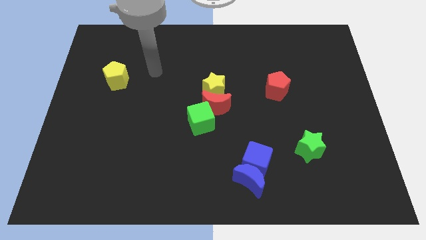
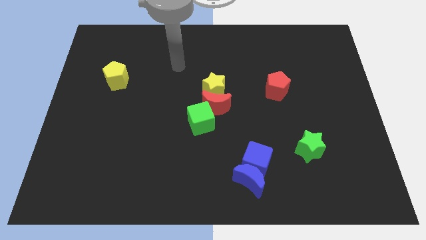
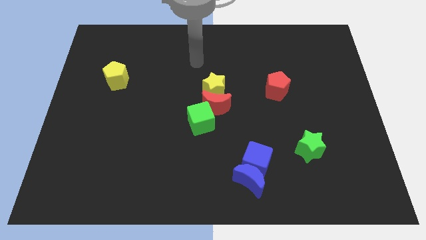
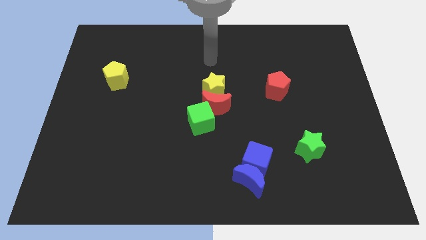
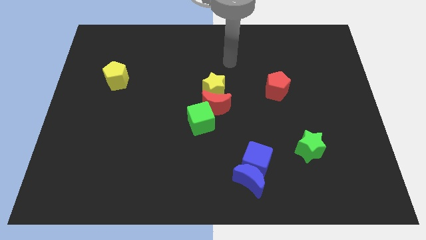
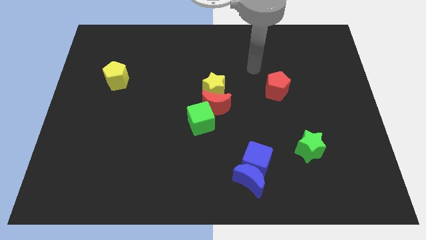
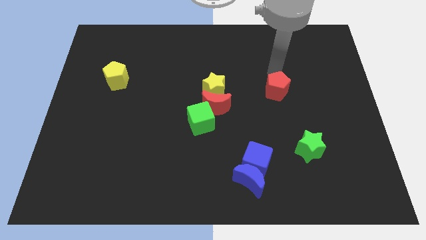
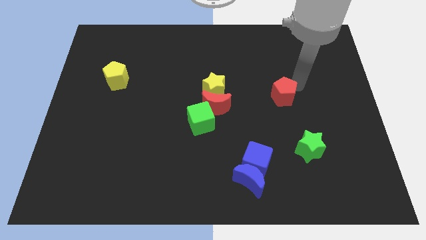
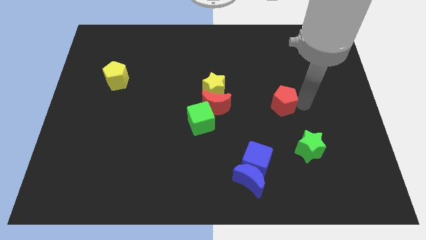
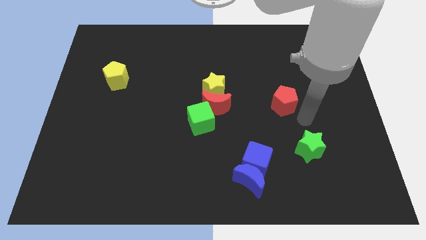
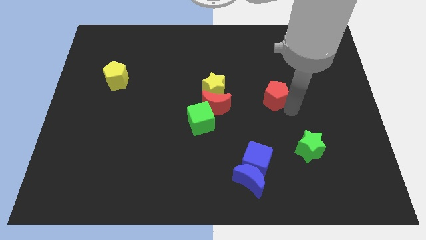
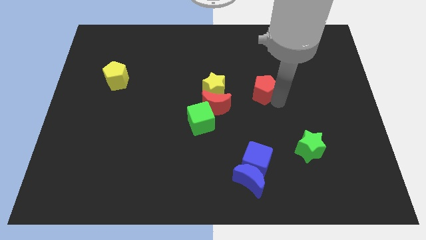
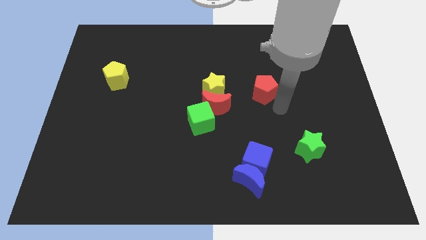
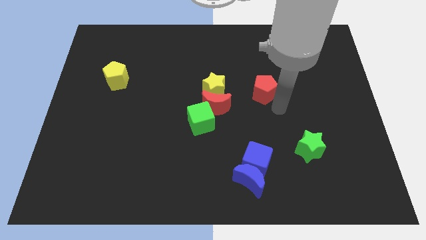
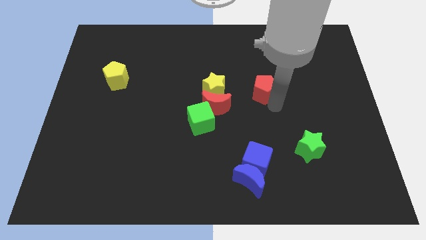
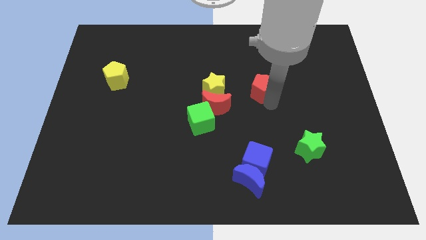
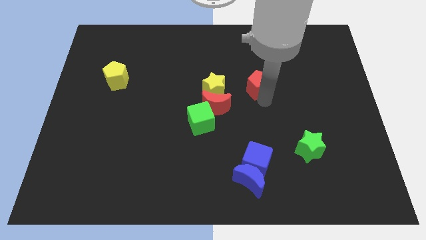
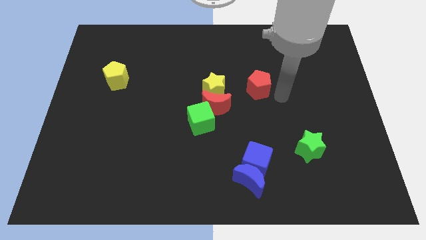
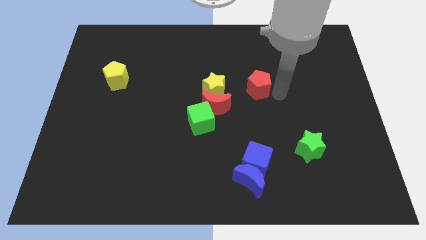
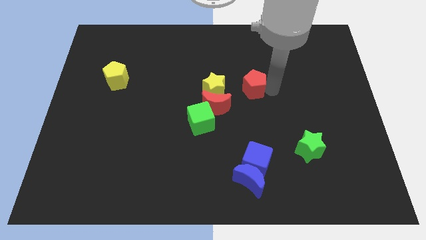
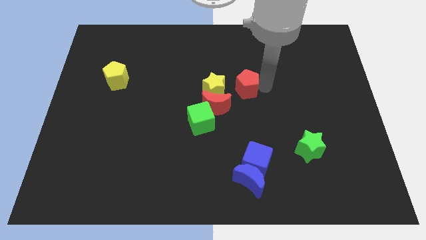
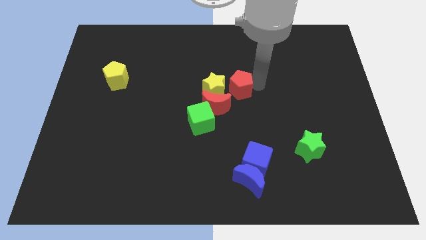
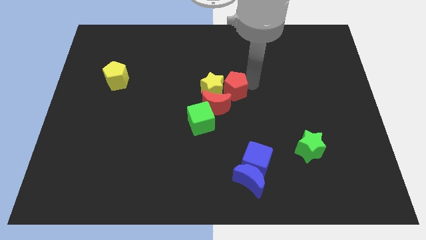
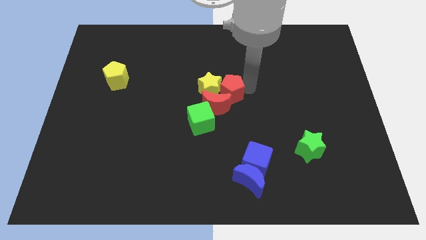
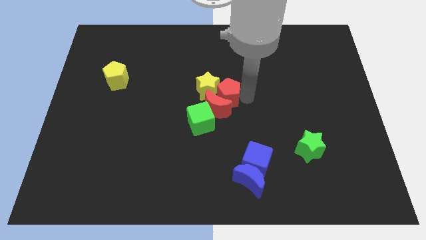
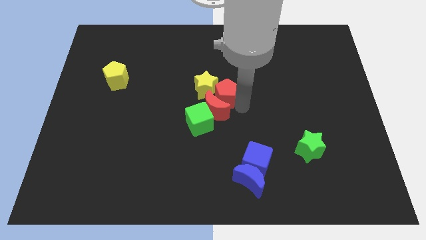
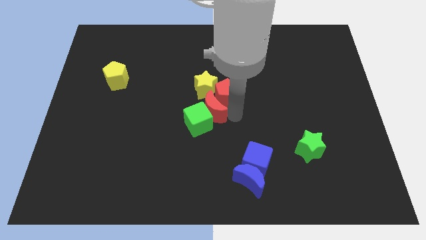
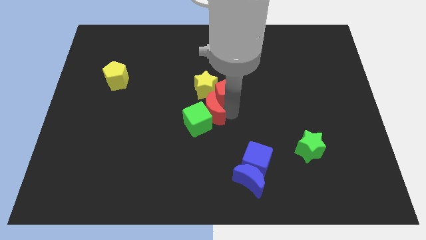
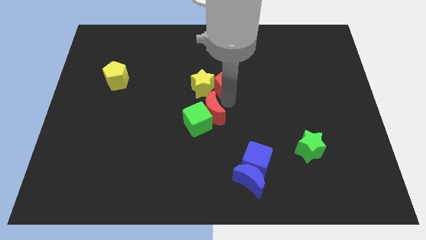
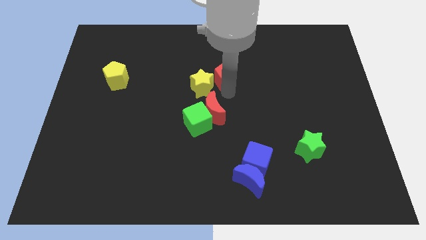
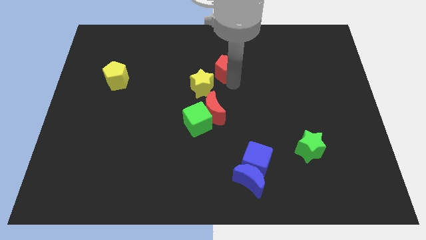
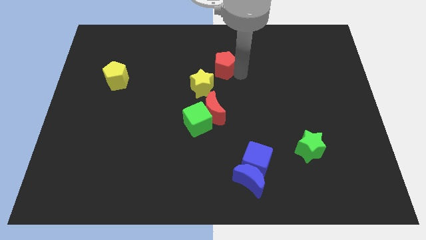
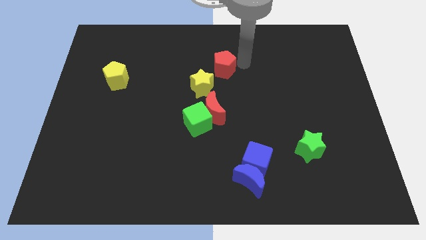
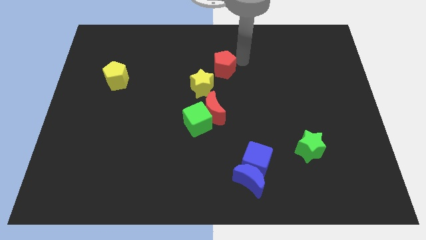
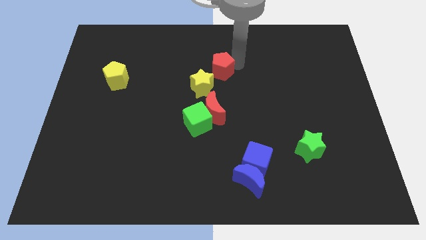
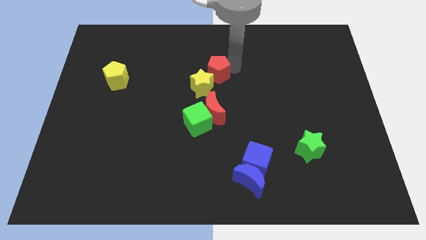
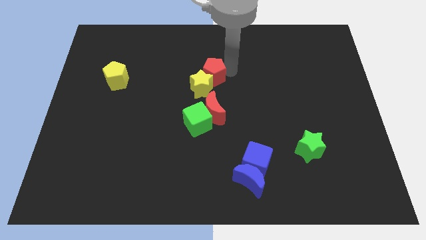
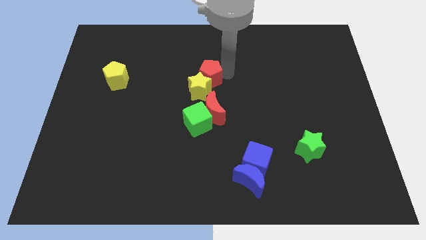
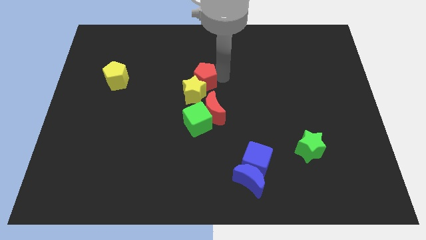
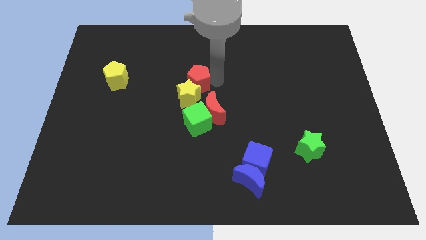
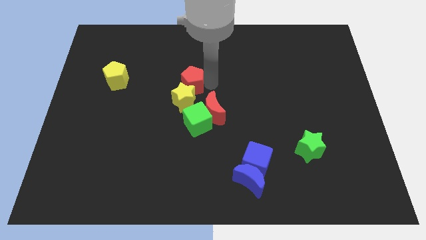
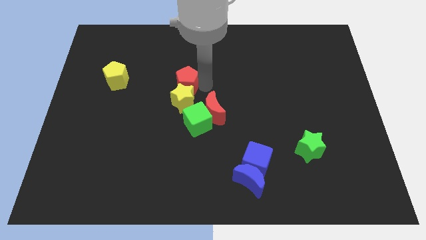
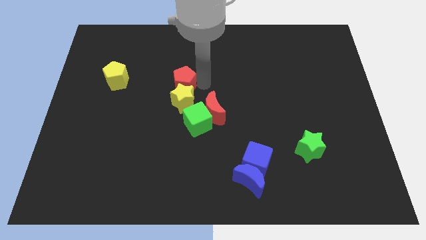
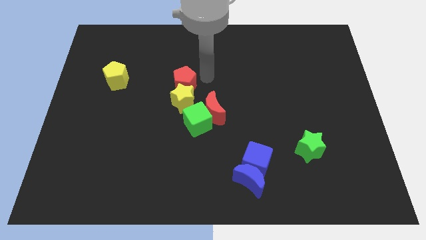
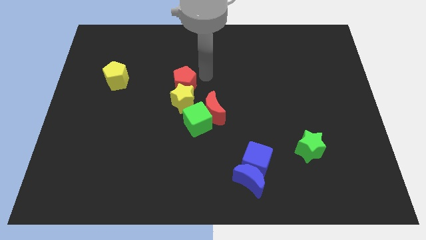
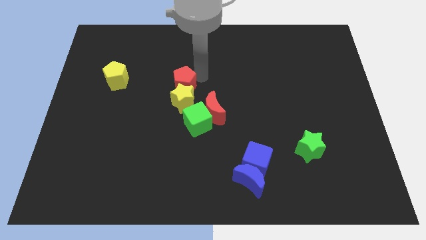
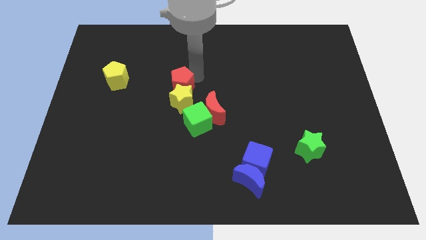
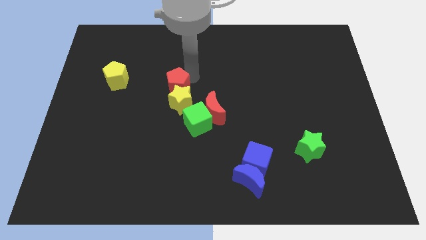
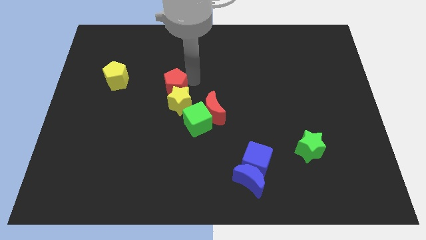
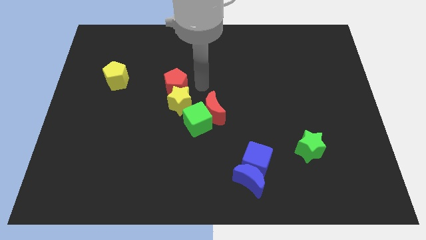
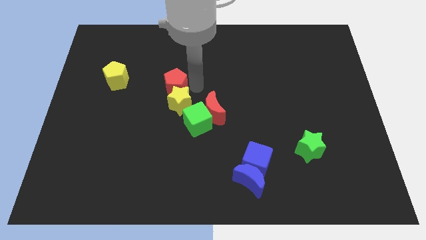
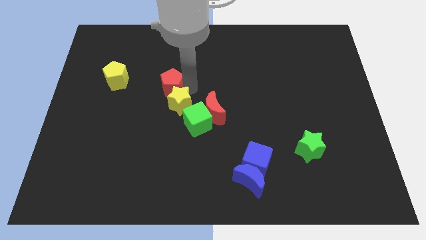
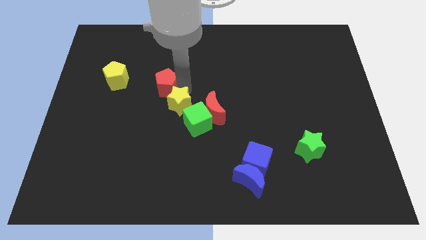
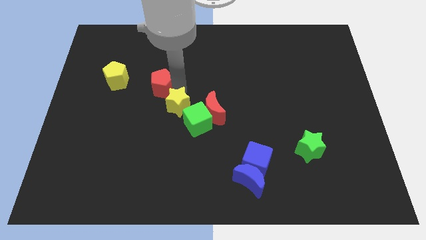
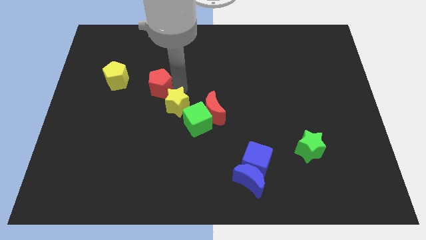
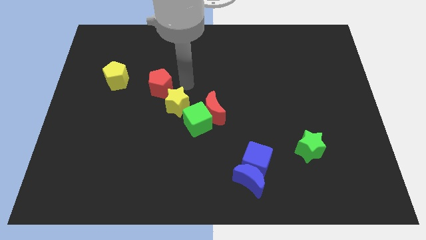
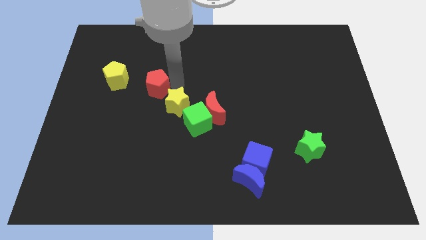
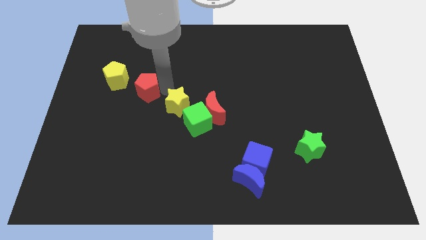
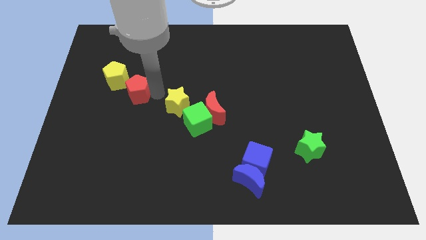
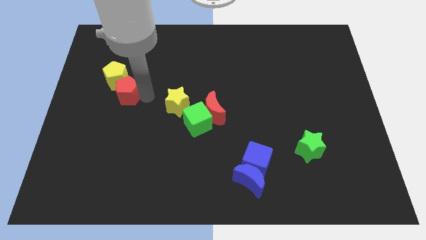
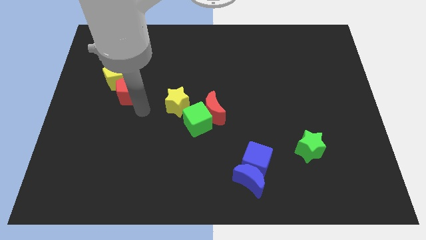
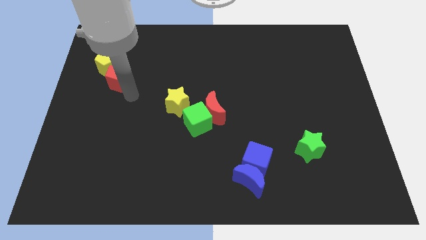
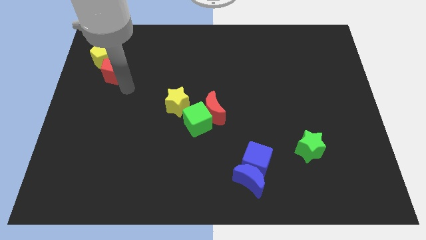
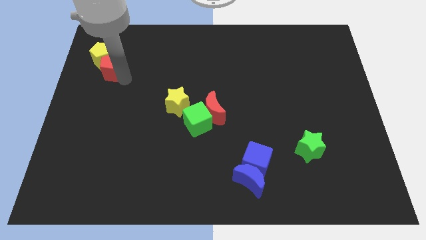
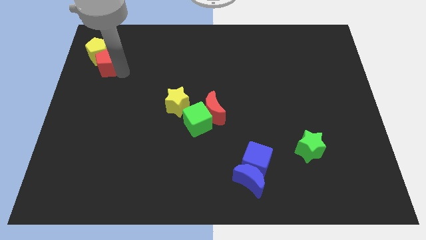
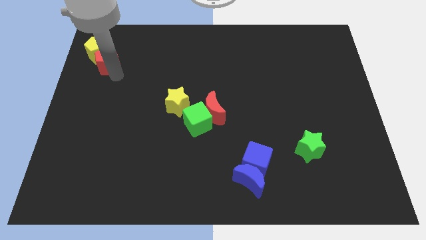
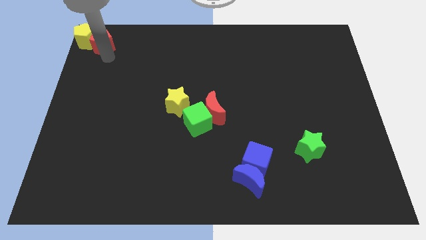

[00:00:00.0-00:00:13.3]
push the red pentagon to the top left corner
